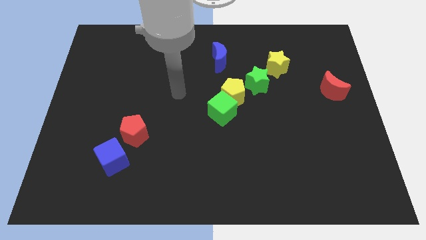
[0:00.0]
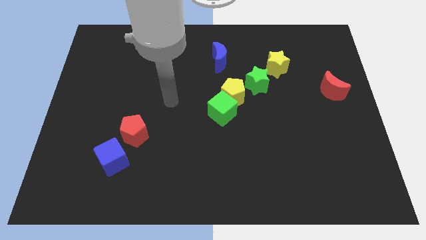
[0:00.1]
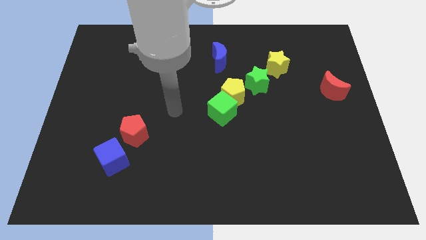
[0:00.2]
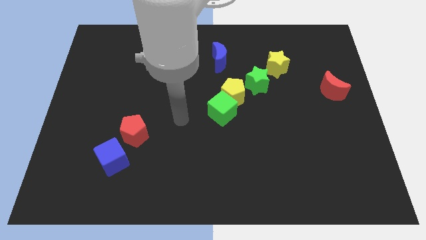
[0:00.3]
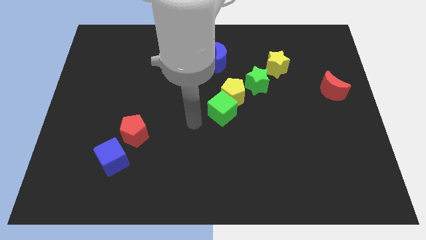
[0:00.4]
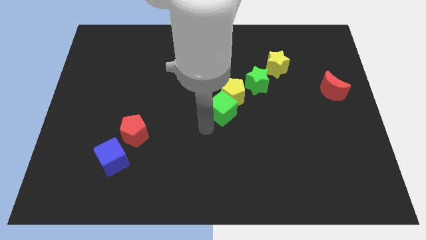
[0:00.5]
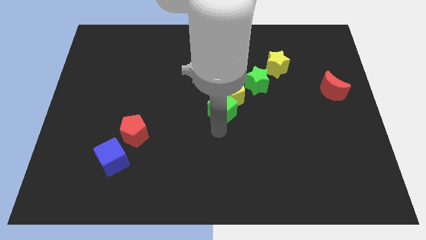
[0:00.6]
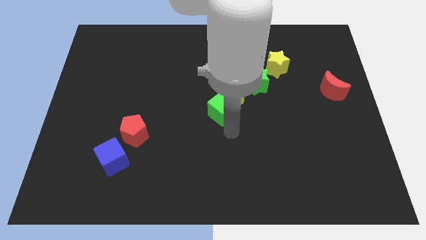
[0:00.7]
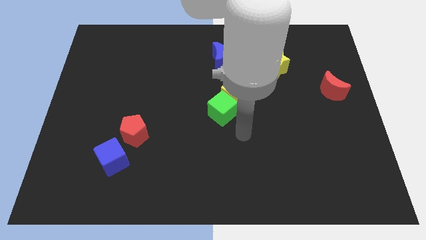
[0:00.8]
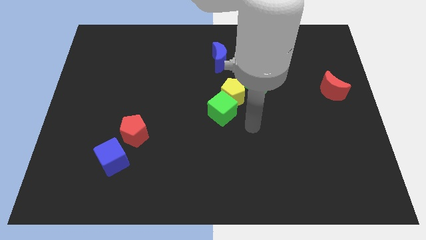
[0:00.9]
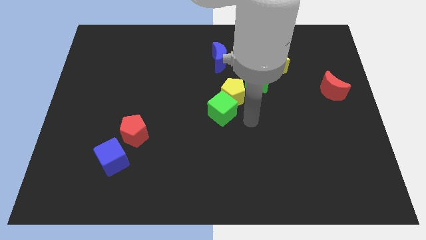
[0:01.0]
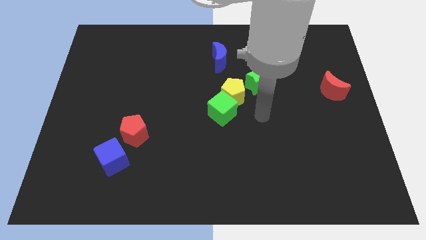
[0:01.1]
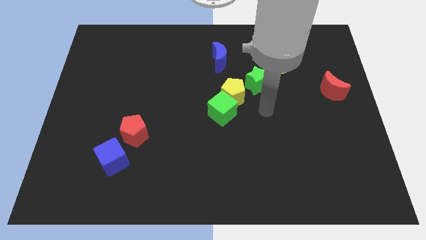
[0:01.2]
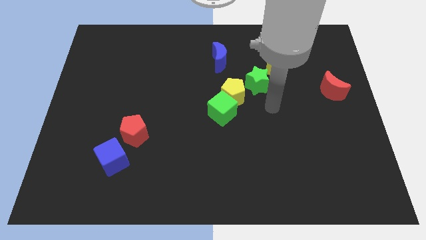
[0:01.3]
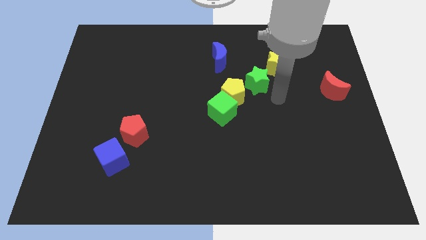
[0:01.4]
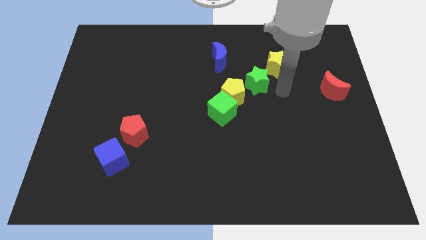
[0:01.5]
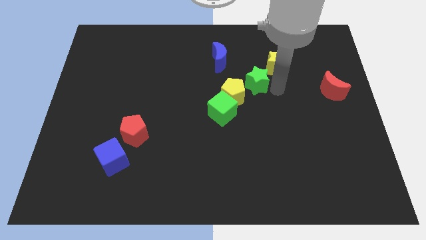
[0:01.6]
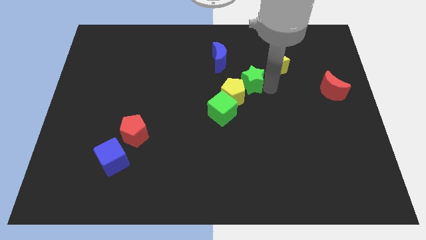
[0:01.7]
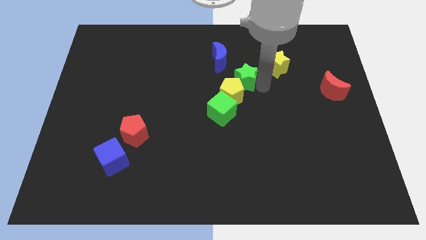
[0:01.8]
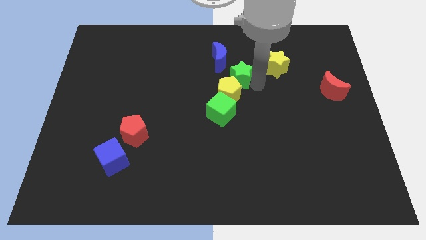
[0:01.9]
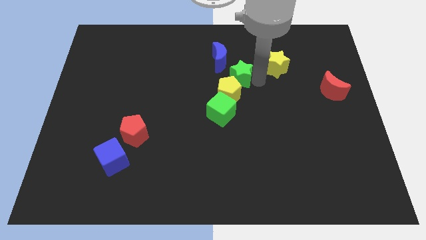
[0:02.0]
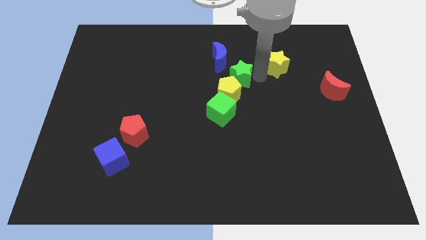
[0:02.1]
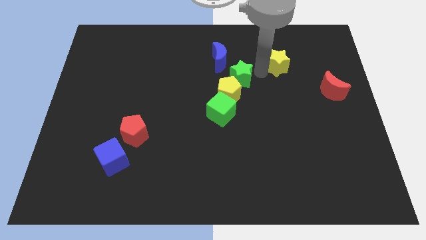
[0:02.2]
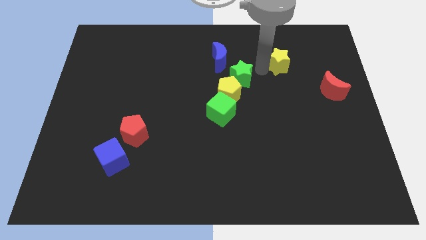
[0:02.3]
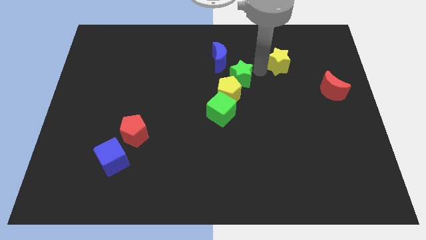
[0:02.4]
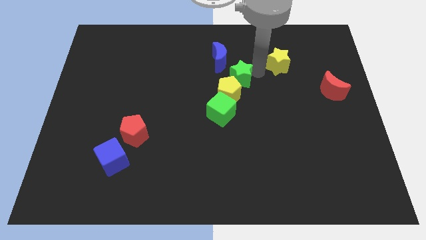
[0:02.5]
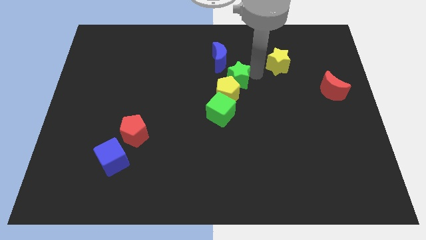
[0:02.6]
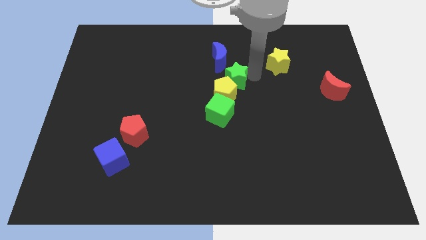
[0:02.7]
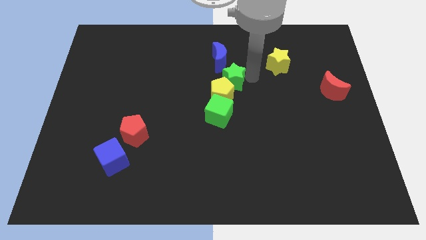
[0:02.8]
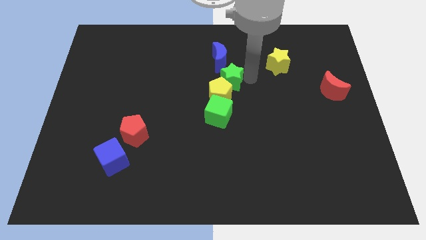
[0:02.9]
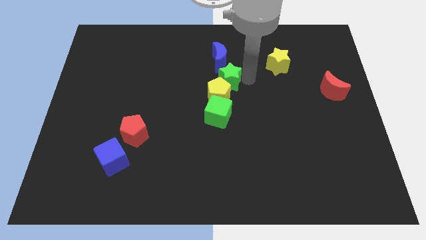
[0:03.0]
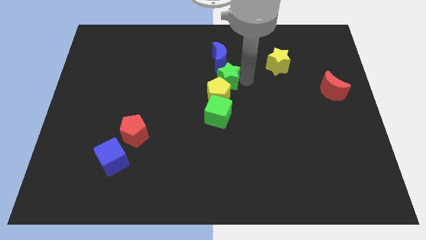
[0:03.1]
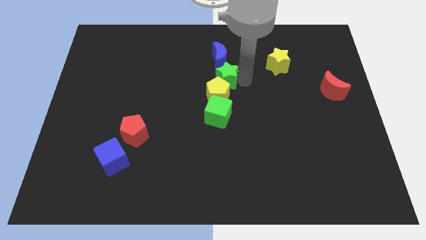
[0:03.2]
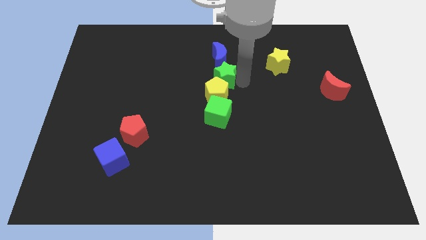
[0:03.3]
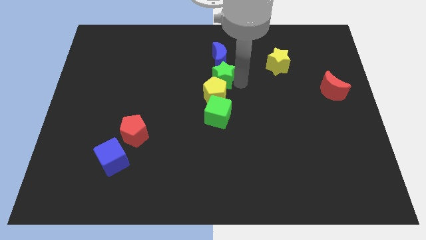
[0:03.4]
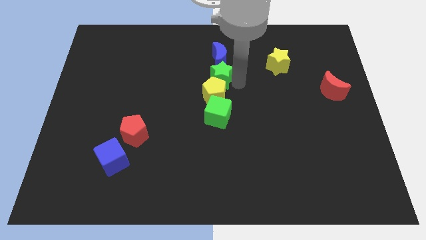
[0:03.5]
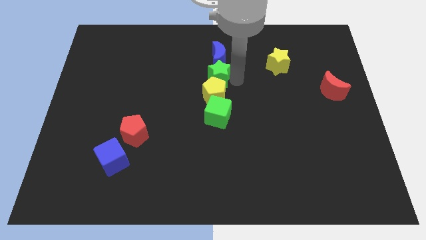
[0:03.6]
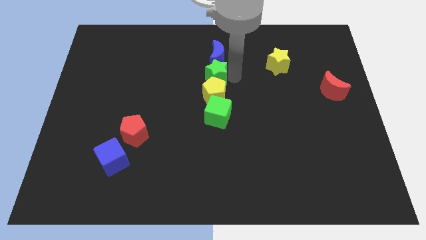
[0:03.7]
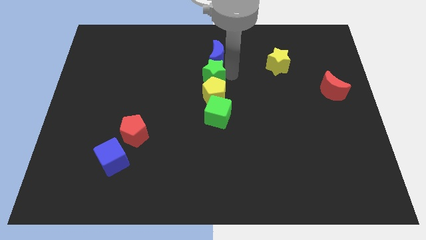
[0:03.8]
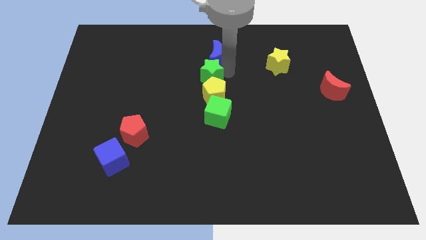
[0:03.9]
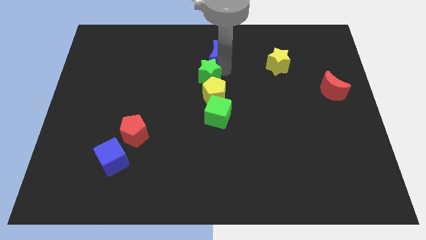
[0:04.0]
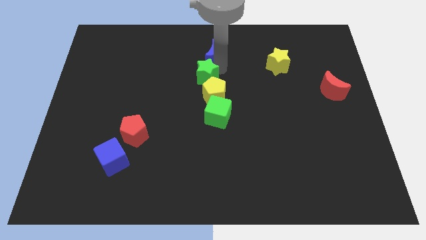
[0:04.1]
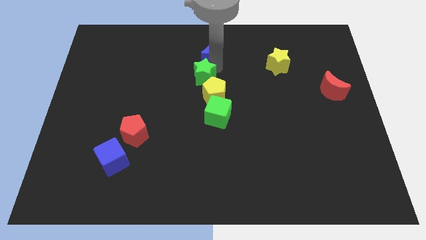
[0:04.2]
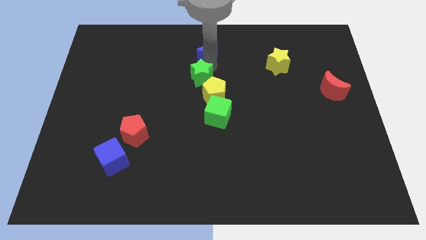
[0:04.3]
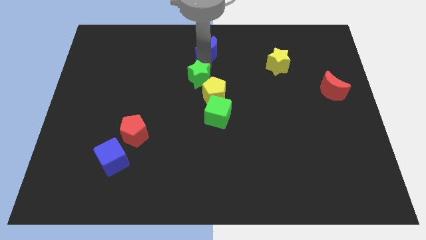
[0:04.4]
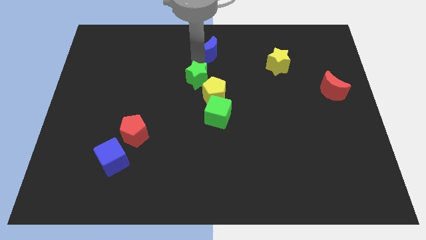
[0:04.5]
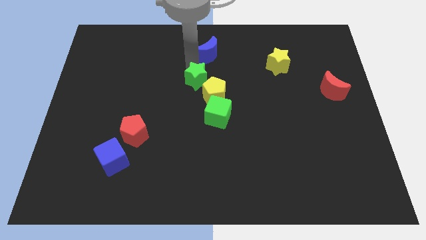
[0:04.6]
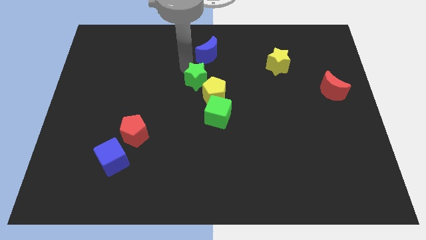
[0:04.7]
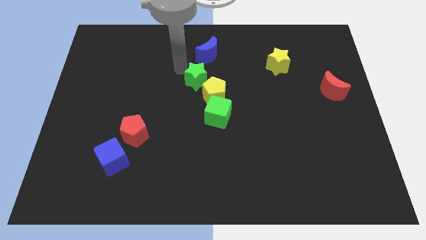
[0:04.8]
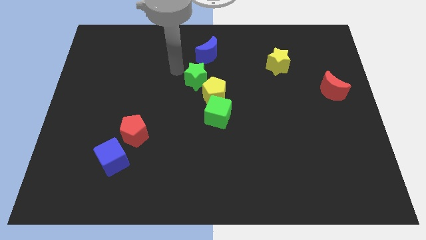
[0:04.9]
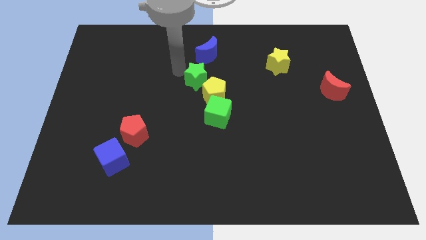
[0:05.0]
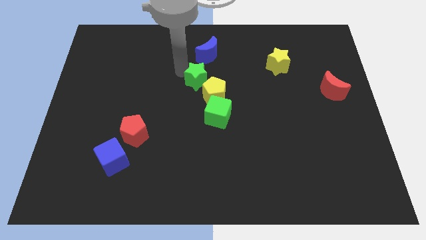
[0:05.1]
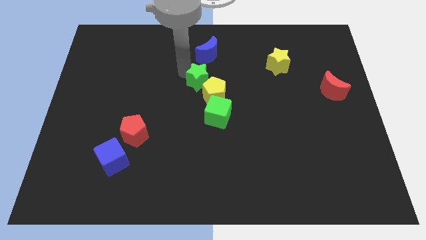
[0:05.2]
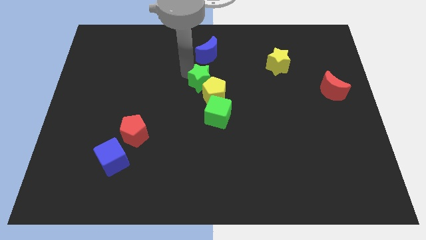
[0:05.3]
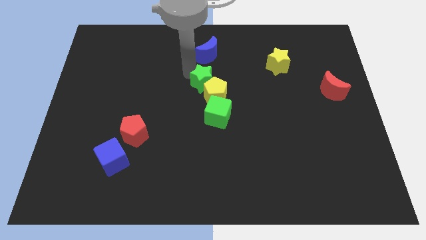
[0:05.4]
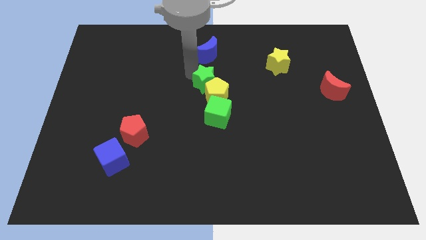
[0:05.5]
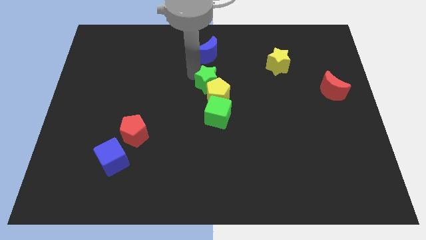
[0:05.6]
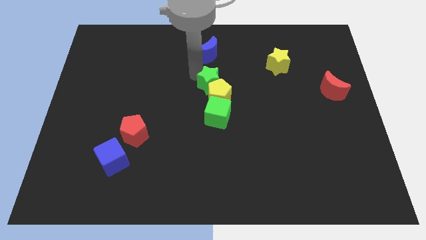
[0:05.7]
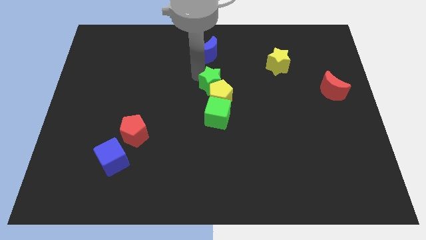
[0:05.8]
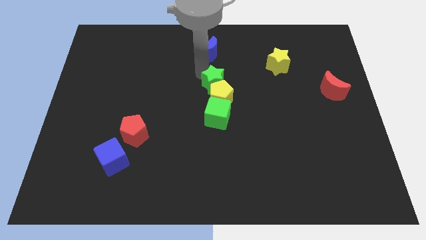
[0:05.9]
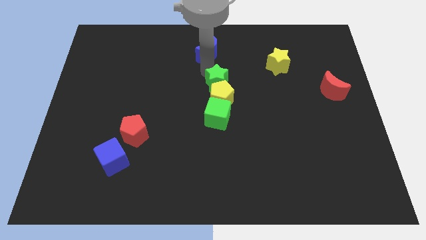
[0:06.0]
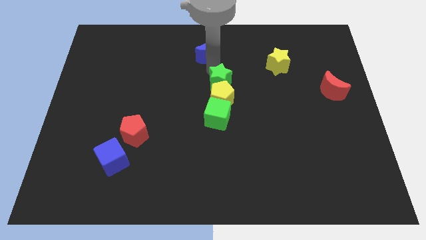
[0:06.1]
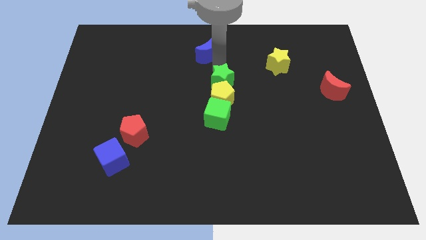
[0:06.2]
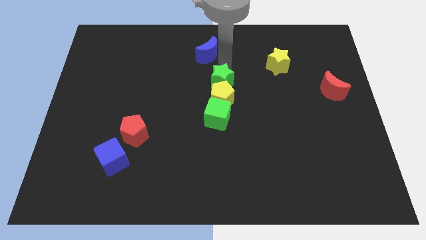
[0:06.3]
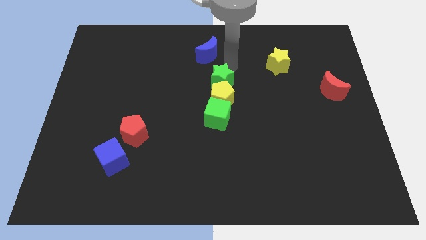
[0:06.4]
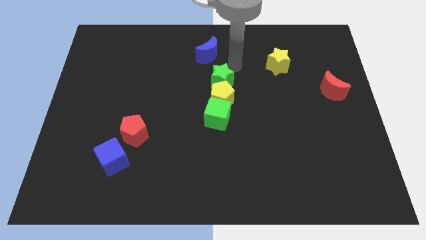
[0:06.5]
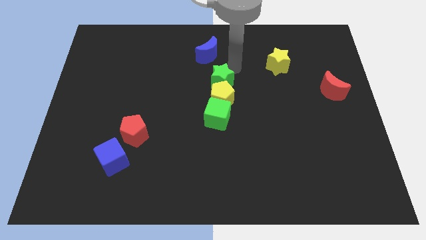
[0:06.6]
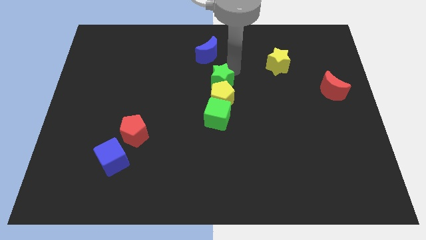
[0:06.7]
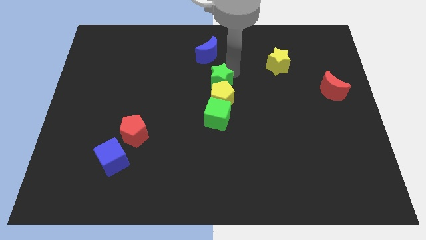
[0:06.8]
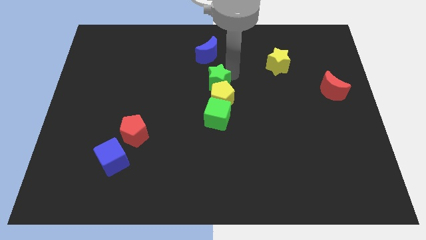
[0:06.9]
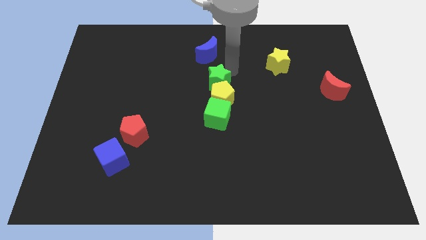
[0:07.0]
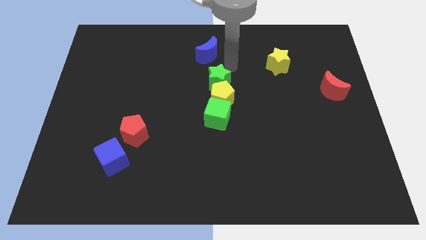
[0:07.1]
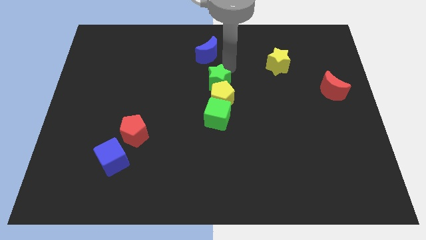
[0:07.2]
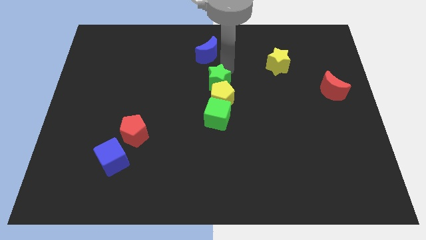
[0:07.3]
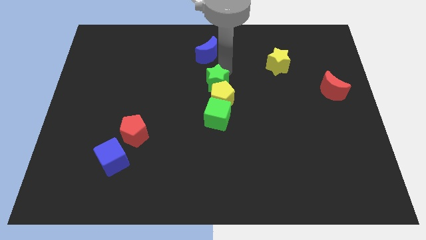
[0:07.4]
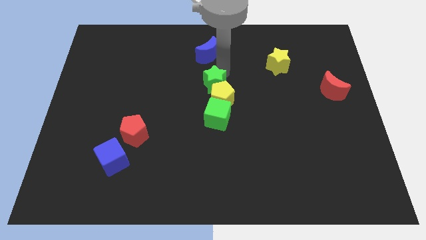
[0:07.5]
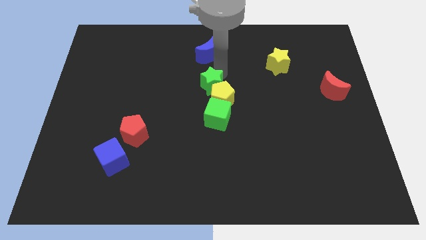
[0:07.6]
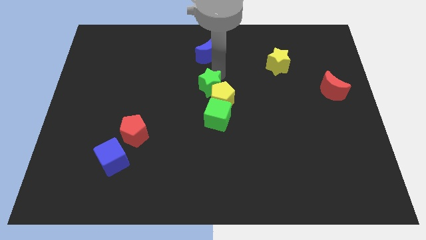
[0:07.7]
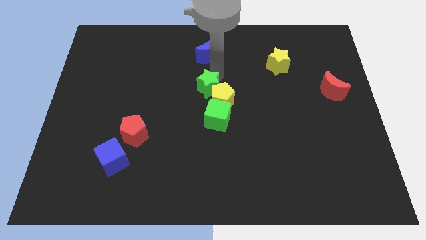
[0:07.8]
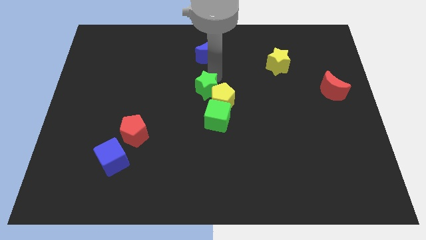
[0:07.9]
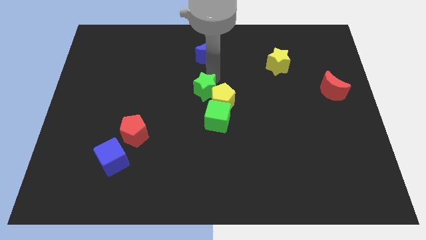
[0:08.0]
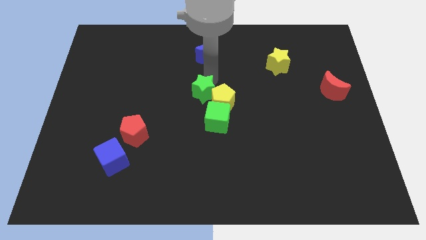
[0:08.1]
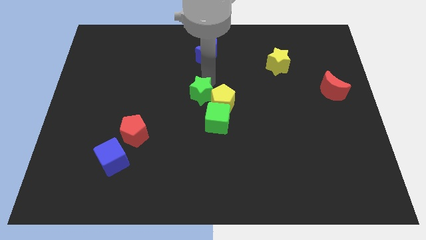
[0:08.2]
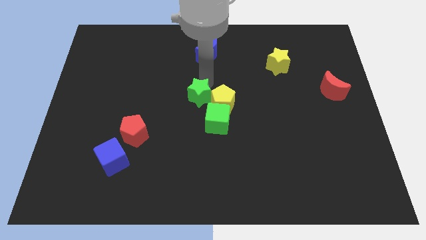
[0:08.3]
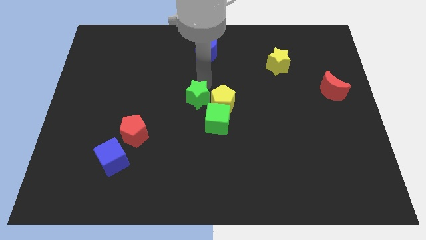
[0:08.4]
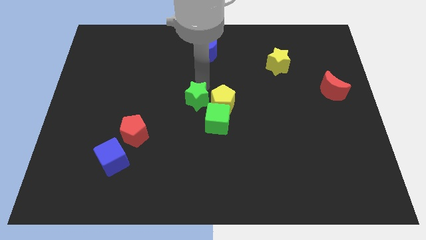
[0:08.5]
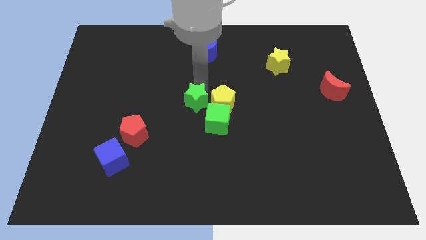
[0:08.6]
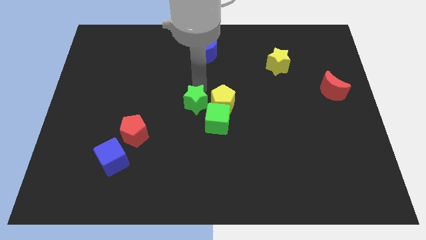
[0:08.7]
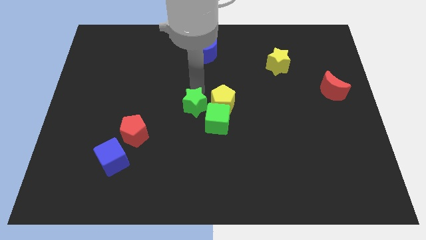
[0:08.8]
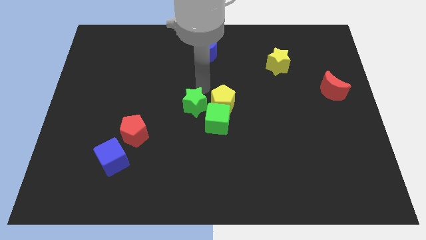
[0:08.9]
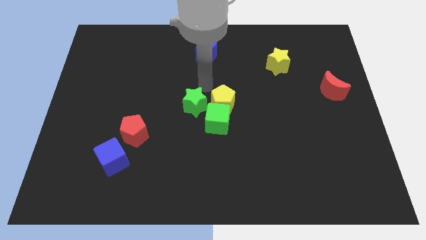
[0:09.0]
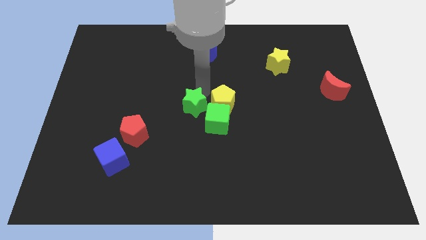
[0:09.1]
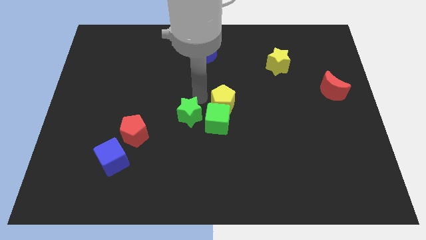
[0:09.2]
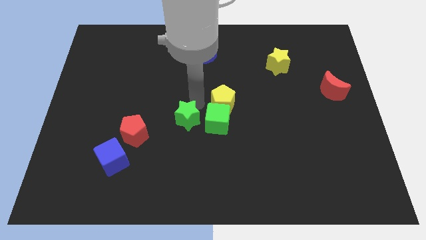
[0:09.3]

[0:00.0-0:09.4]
put the green star just right of the red pentagon
